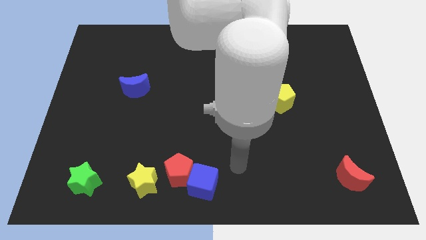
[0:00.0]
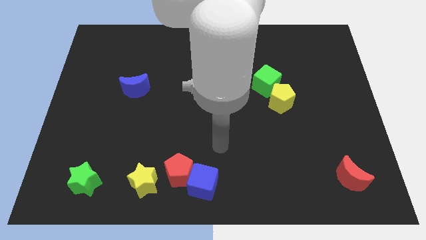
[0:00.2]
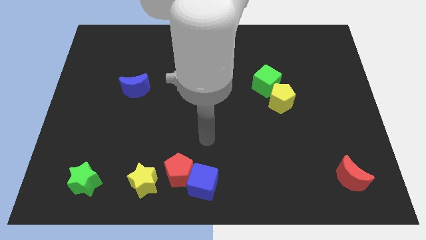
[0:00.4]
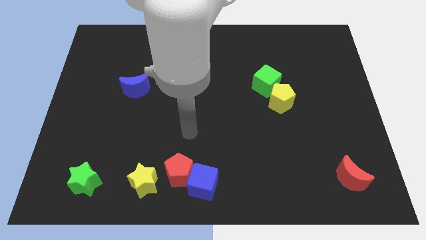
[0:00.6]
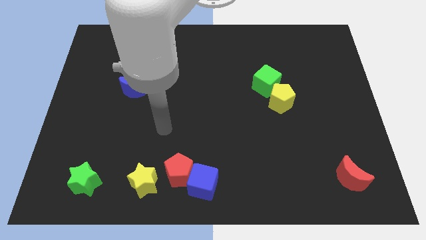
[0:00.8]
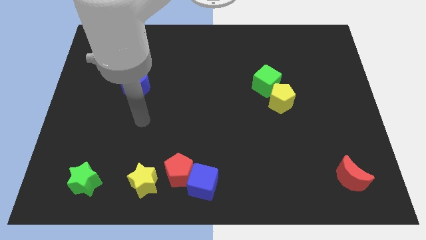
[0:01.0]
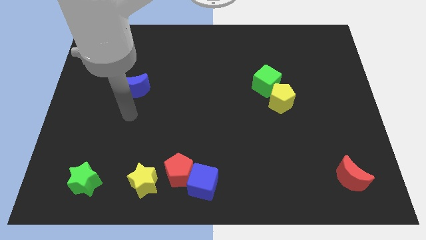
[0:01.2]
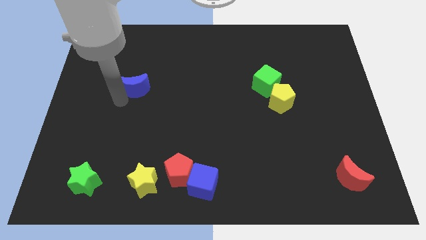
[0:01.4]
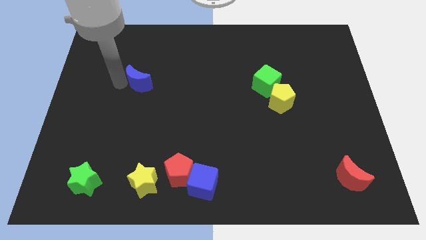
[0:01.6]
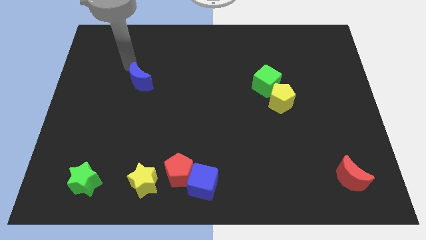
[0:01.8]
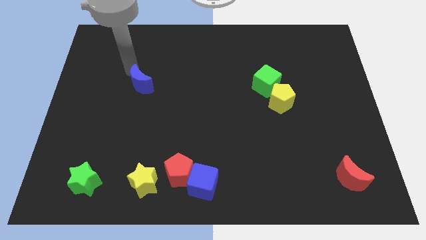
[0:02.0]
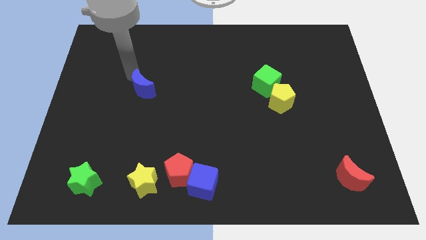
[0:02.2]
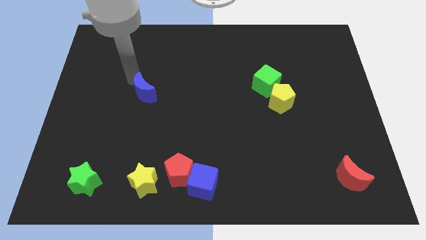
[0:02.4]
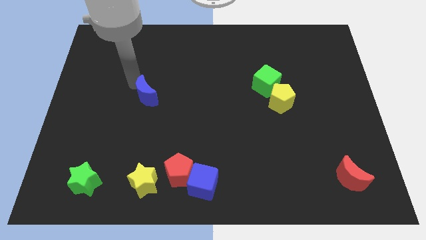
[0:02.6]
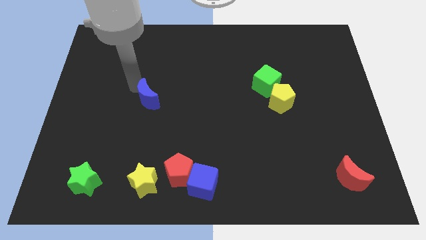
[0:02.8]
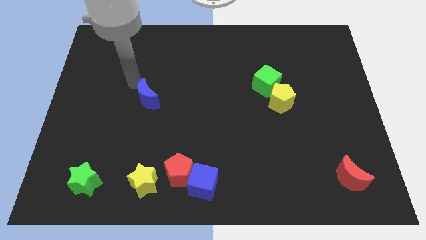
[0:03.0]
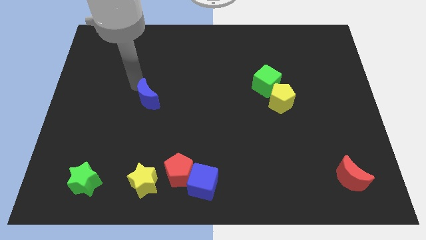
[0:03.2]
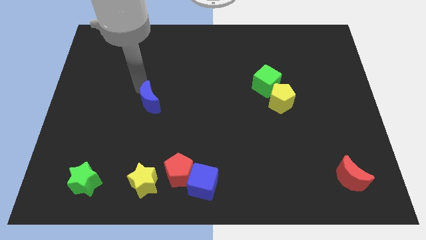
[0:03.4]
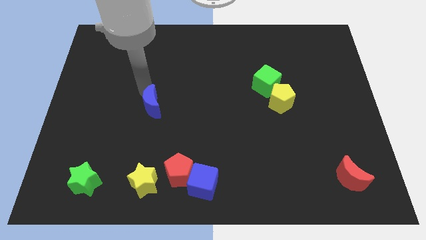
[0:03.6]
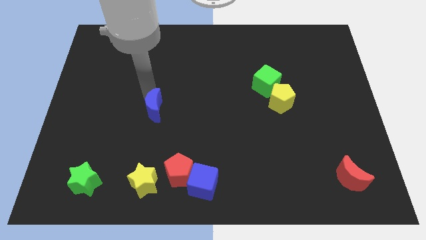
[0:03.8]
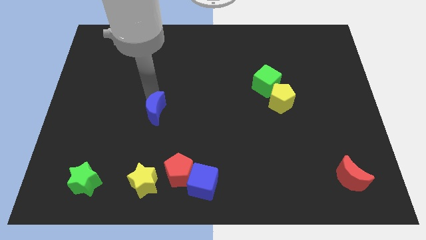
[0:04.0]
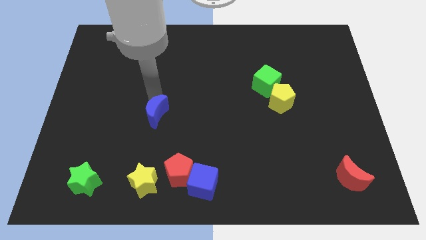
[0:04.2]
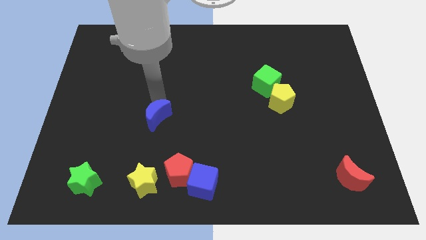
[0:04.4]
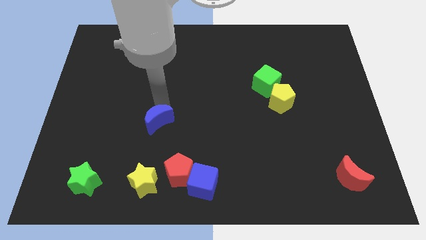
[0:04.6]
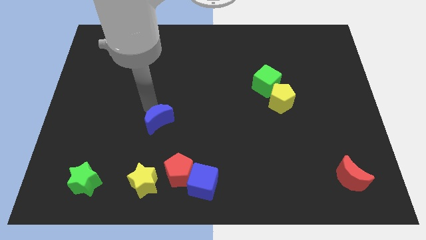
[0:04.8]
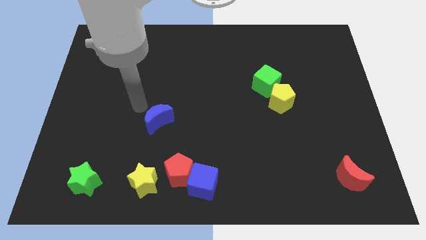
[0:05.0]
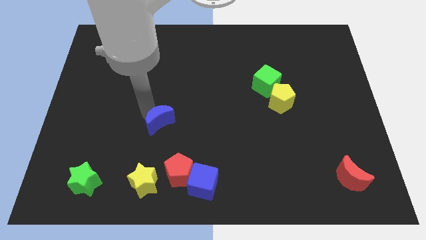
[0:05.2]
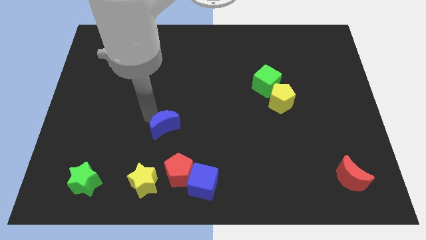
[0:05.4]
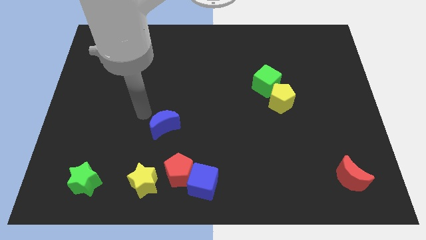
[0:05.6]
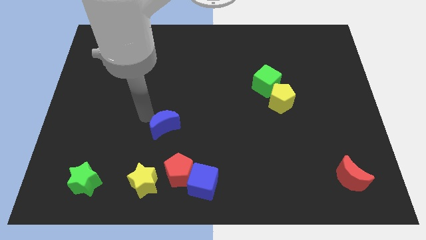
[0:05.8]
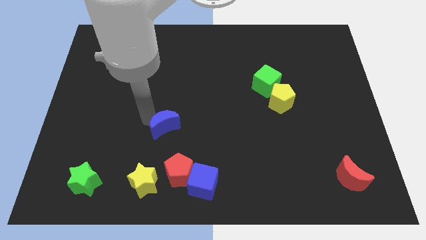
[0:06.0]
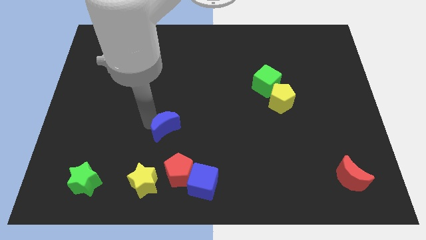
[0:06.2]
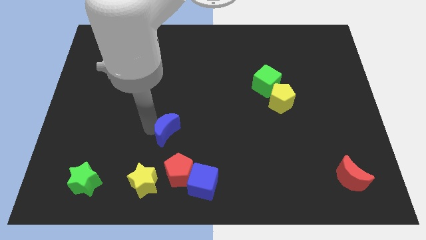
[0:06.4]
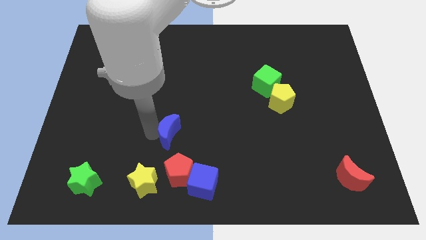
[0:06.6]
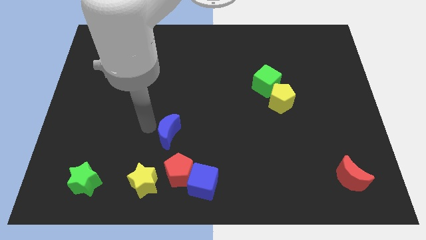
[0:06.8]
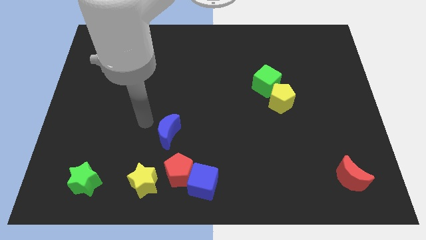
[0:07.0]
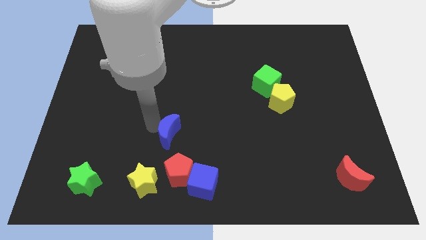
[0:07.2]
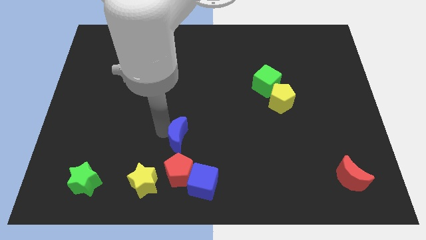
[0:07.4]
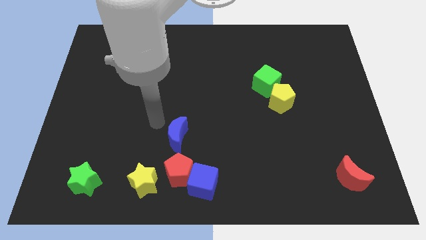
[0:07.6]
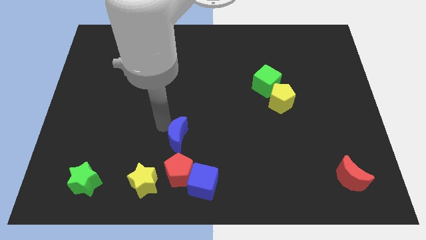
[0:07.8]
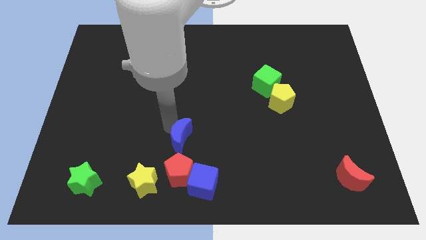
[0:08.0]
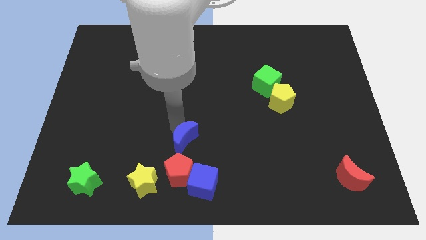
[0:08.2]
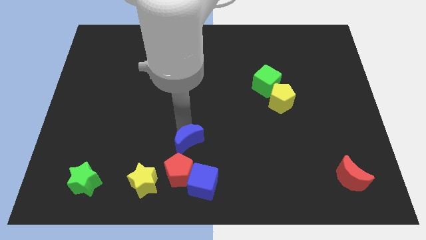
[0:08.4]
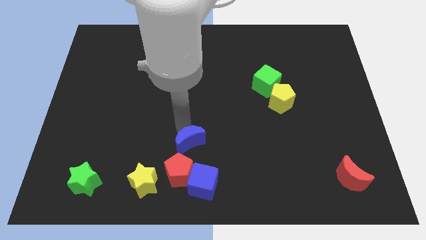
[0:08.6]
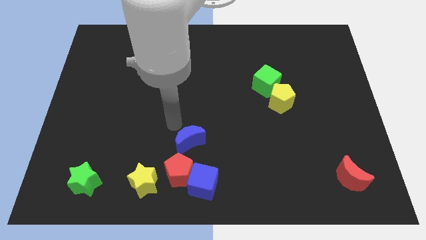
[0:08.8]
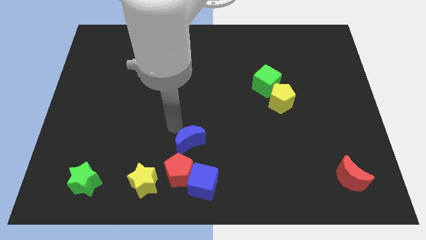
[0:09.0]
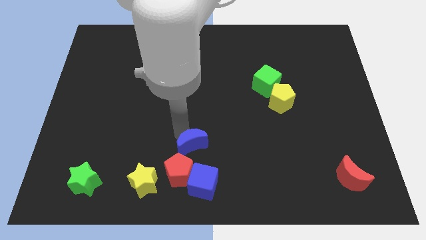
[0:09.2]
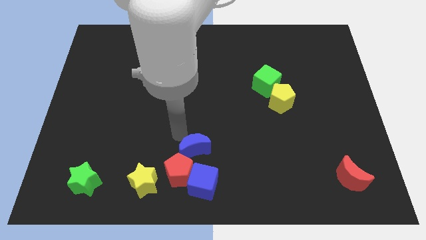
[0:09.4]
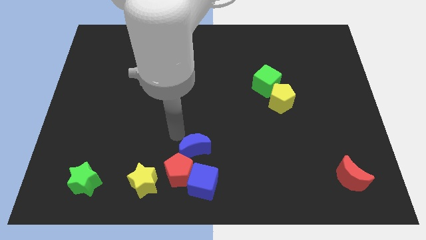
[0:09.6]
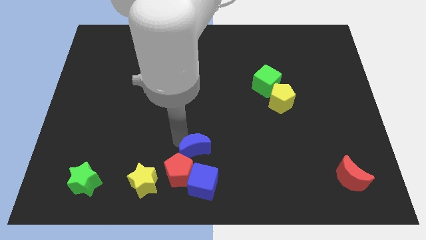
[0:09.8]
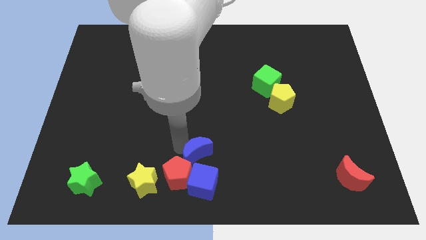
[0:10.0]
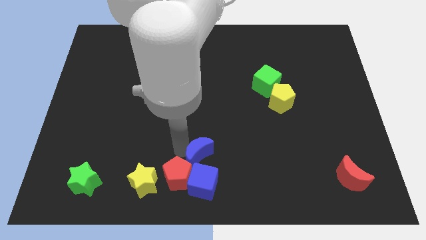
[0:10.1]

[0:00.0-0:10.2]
slide the blue moon to the bottom side

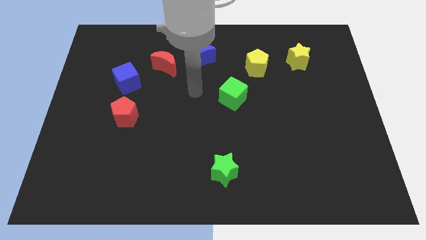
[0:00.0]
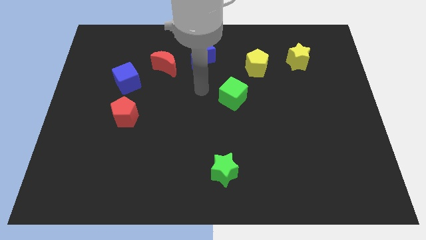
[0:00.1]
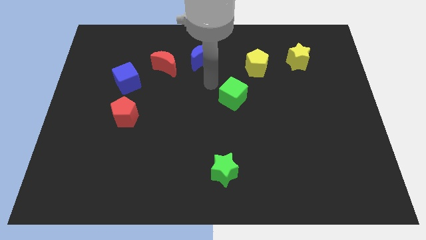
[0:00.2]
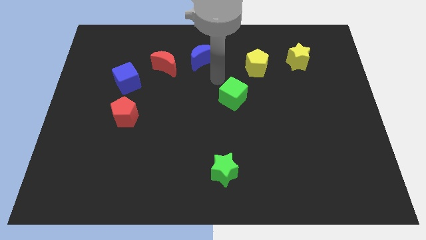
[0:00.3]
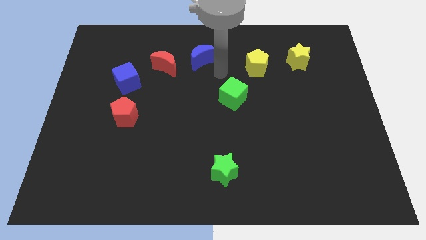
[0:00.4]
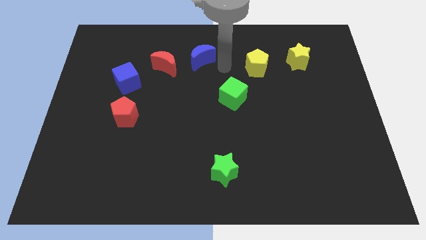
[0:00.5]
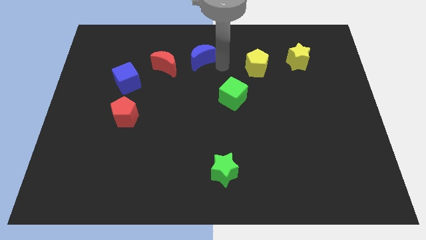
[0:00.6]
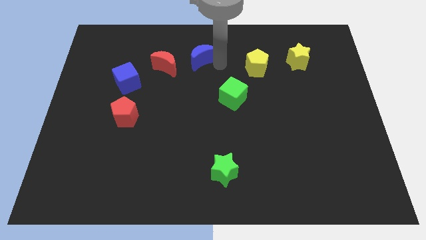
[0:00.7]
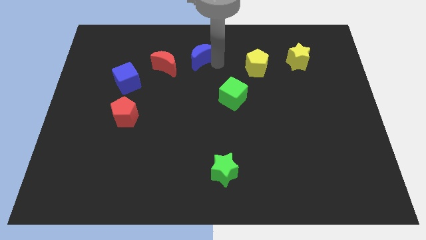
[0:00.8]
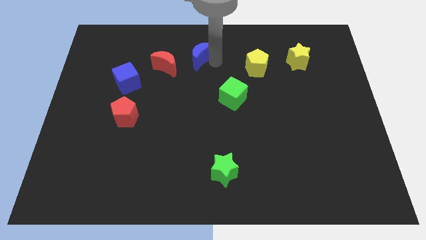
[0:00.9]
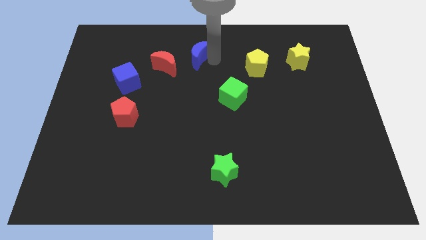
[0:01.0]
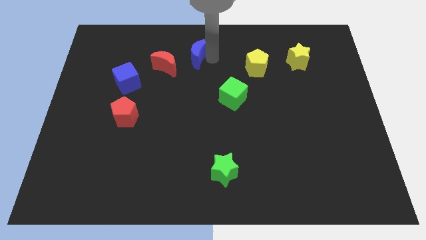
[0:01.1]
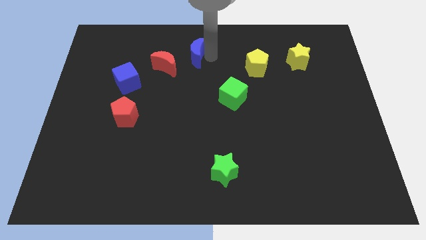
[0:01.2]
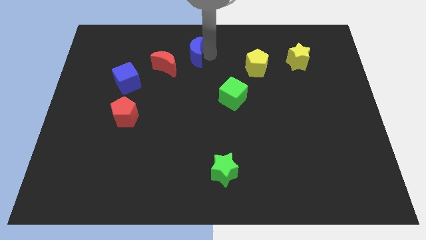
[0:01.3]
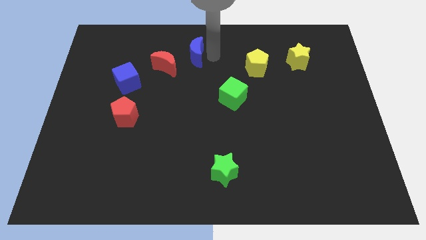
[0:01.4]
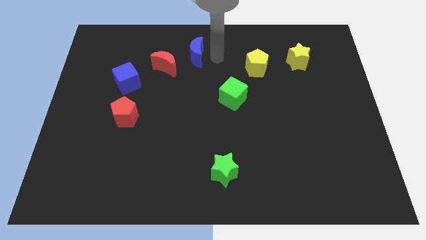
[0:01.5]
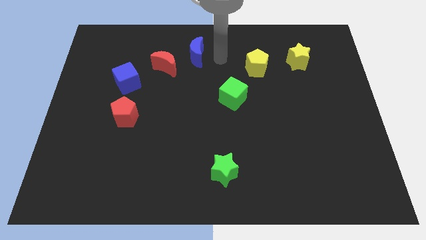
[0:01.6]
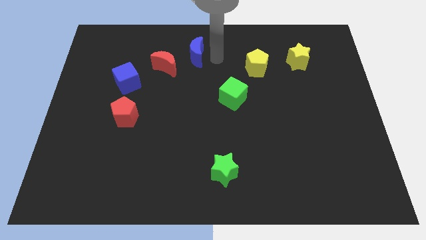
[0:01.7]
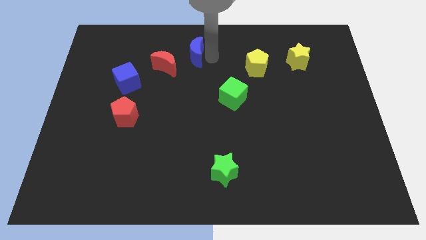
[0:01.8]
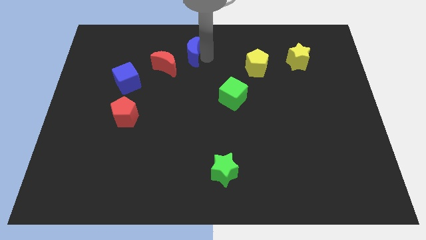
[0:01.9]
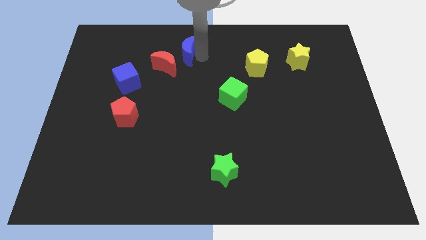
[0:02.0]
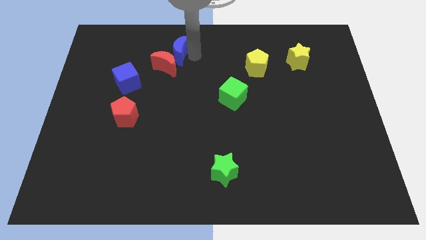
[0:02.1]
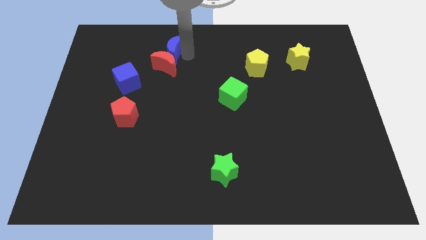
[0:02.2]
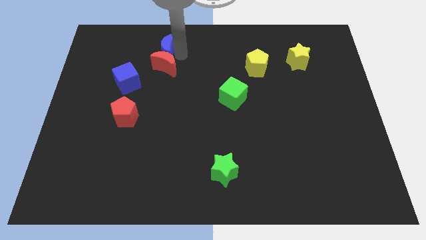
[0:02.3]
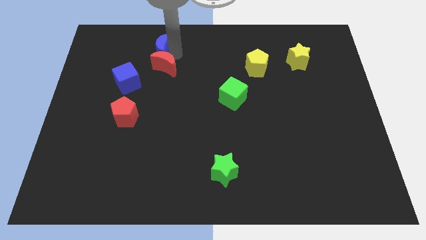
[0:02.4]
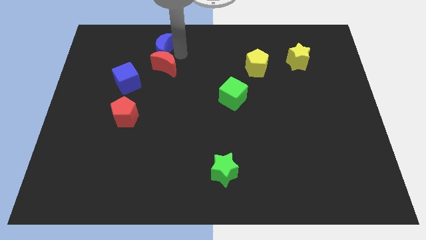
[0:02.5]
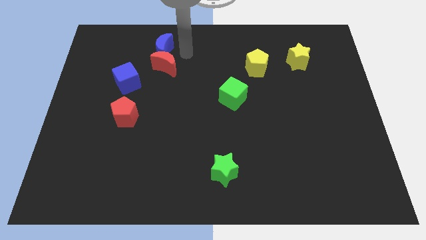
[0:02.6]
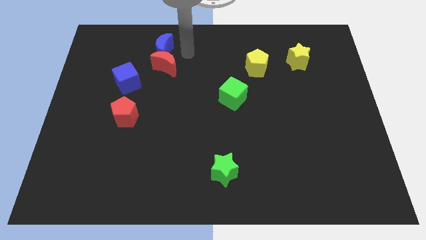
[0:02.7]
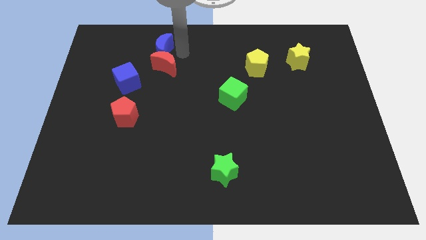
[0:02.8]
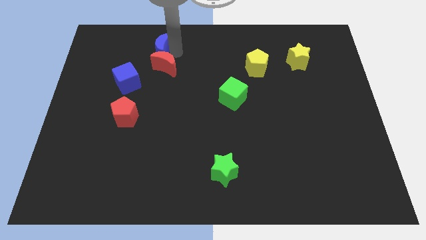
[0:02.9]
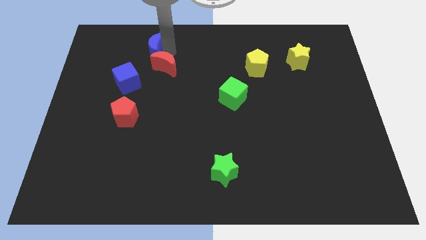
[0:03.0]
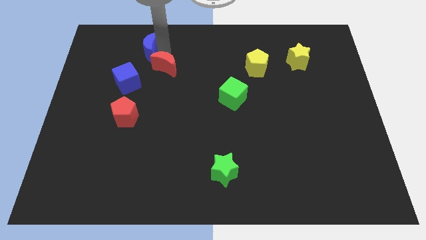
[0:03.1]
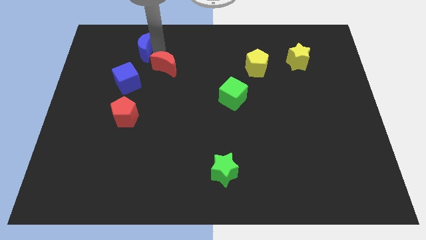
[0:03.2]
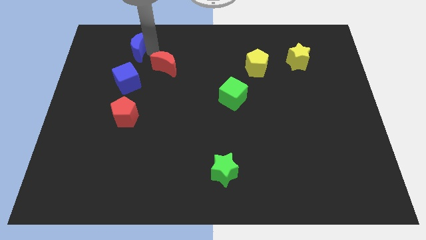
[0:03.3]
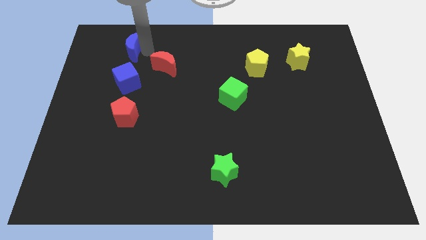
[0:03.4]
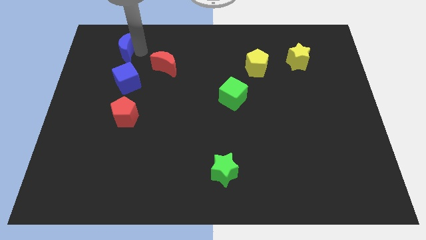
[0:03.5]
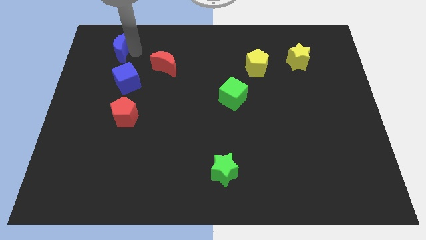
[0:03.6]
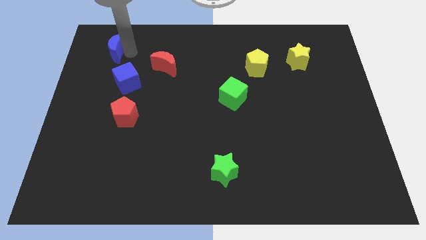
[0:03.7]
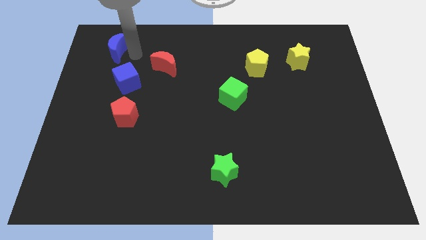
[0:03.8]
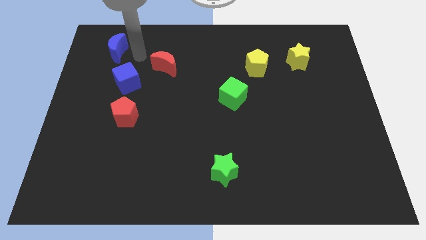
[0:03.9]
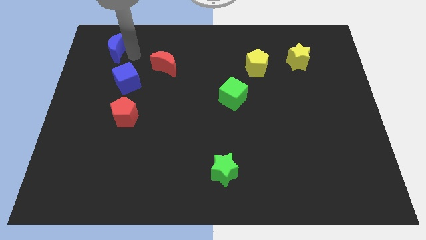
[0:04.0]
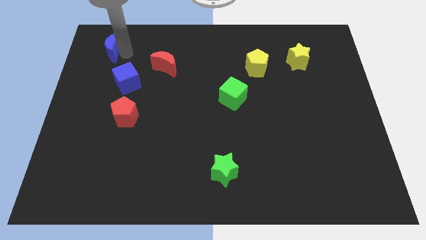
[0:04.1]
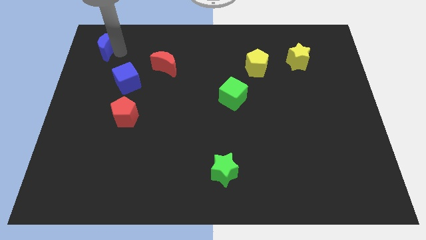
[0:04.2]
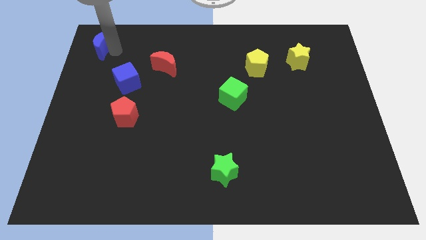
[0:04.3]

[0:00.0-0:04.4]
move the blue moon to the upper left corner
